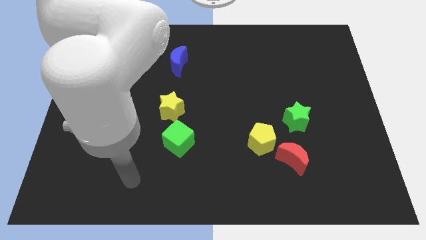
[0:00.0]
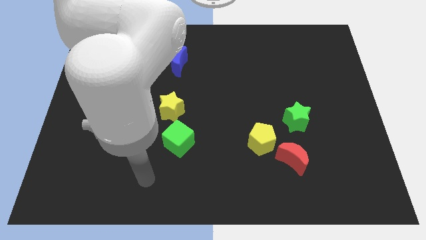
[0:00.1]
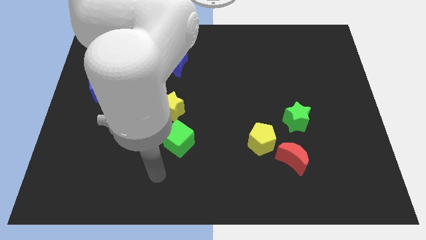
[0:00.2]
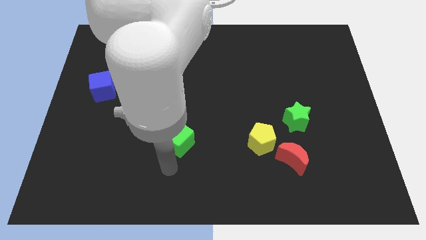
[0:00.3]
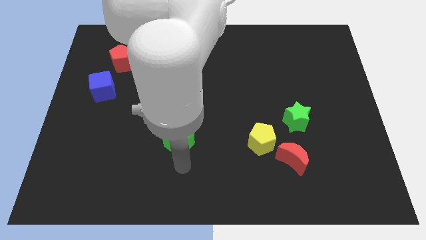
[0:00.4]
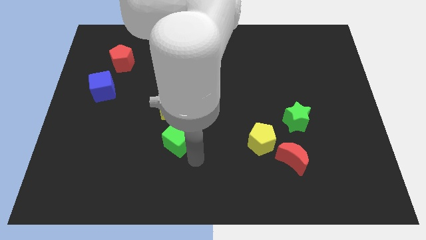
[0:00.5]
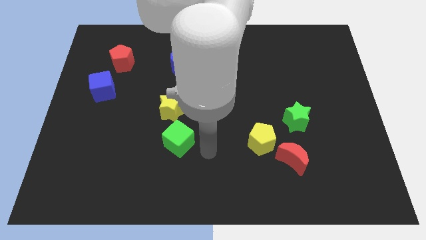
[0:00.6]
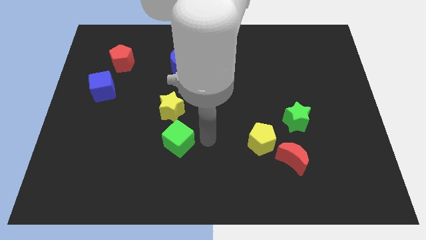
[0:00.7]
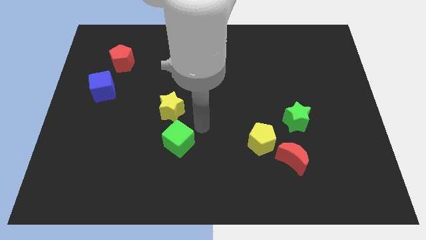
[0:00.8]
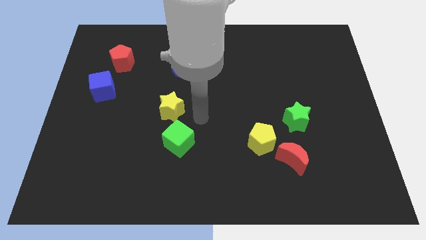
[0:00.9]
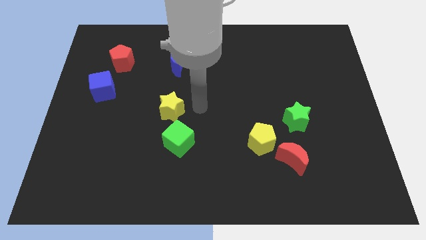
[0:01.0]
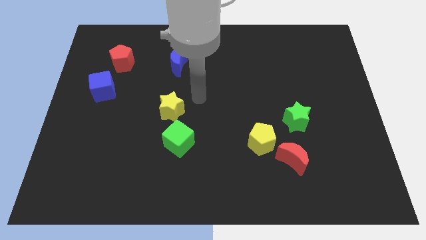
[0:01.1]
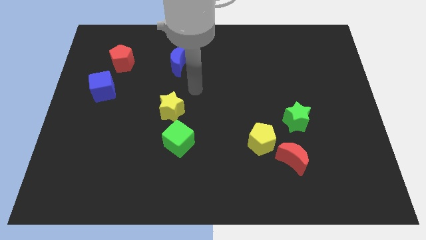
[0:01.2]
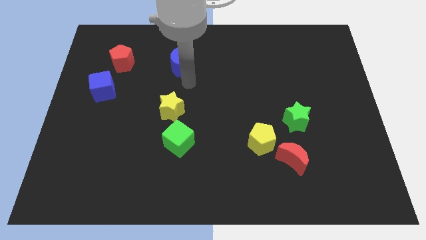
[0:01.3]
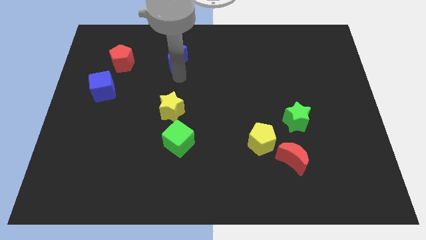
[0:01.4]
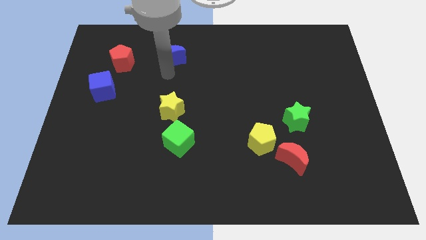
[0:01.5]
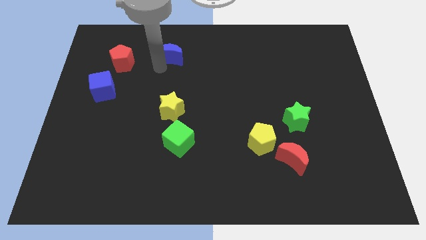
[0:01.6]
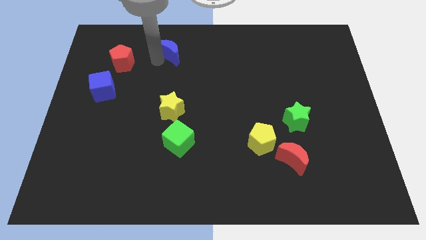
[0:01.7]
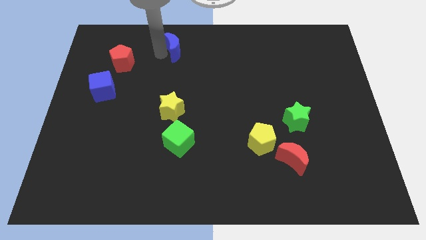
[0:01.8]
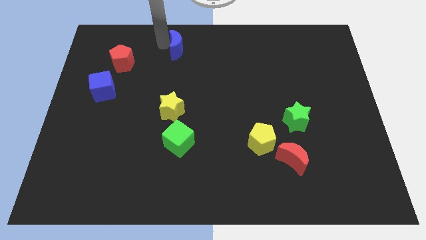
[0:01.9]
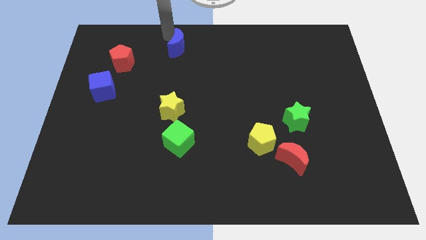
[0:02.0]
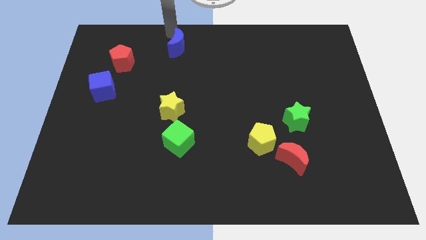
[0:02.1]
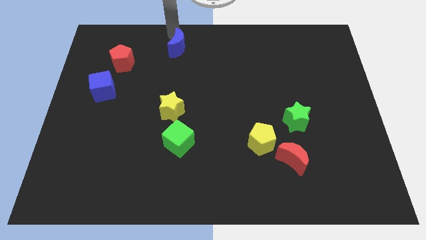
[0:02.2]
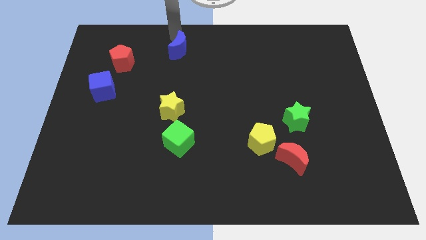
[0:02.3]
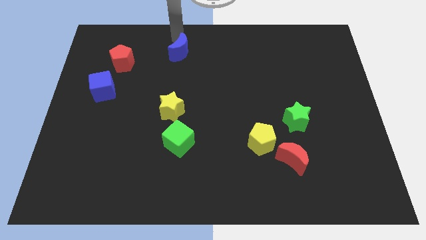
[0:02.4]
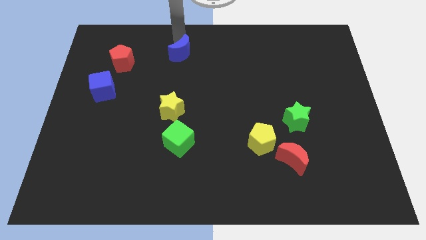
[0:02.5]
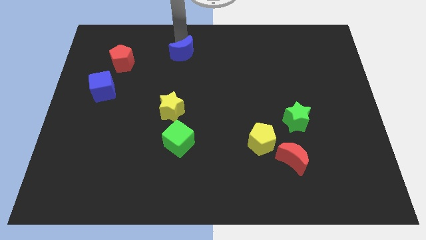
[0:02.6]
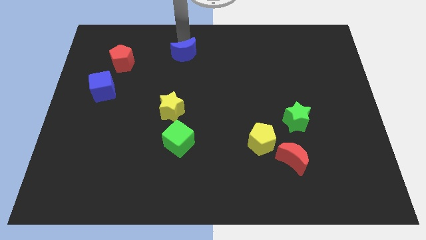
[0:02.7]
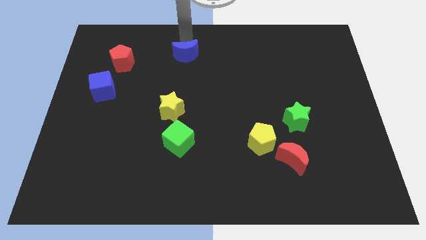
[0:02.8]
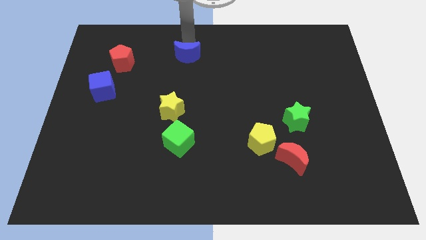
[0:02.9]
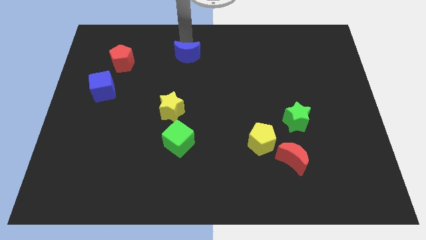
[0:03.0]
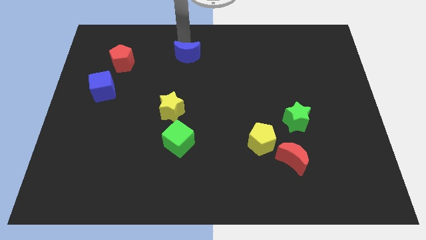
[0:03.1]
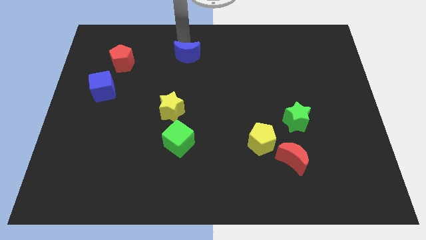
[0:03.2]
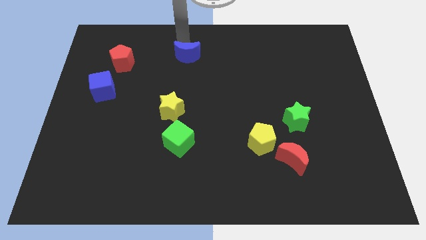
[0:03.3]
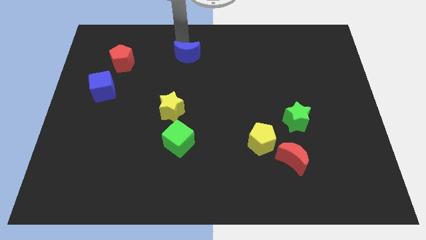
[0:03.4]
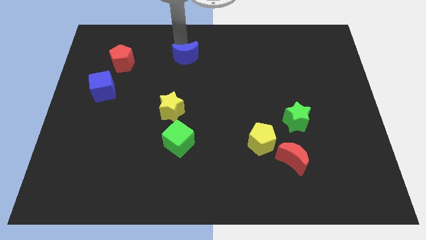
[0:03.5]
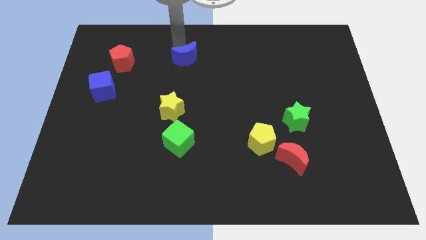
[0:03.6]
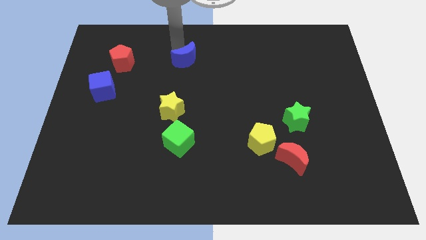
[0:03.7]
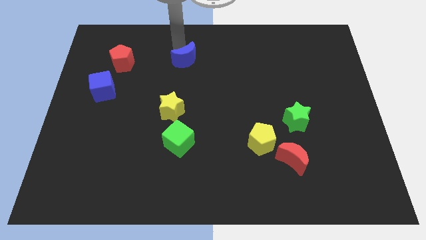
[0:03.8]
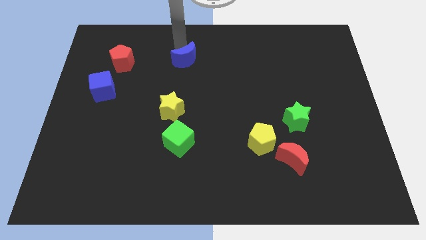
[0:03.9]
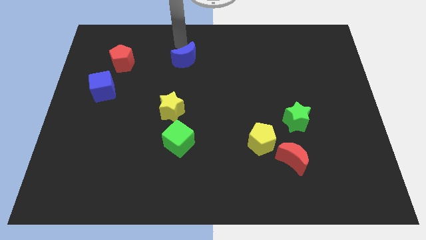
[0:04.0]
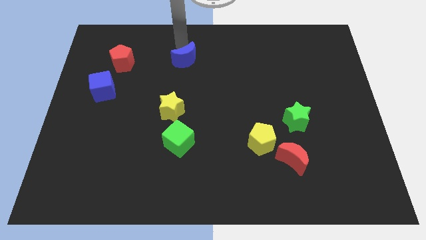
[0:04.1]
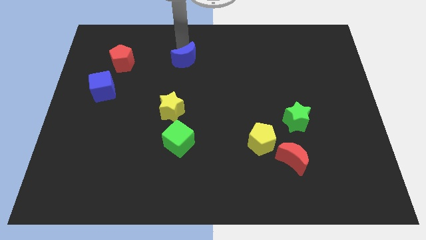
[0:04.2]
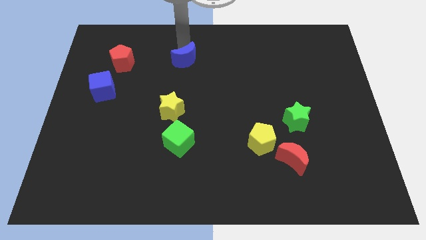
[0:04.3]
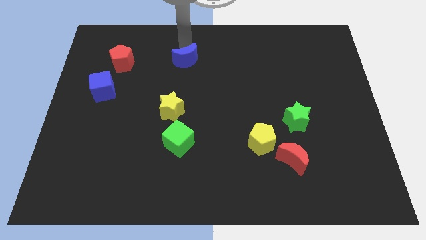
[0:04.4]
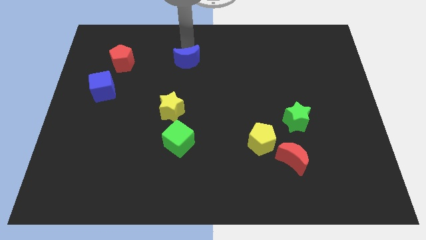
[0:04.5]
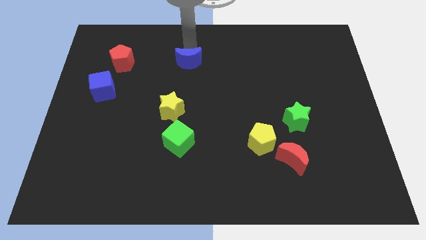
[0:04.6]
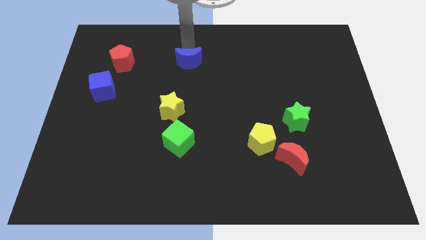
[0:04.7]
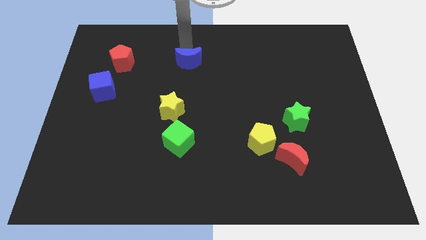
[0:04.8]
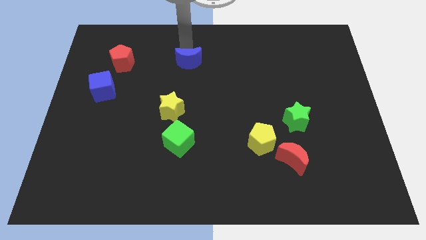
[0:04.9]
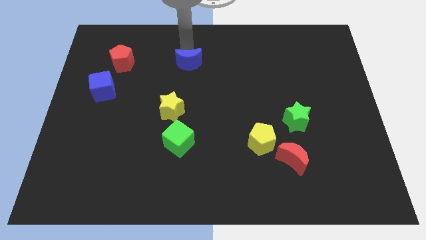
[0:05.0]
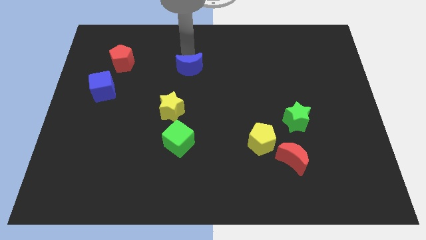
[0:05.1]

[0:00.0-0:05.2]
push the blue moon to the middle

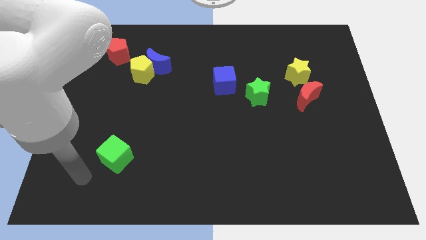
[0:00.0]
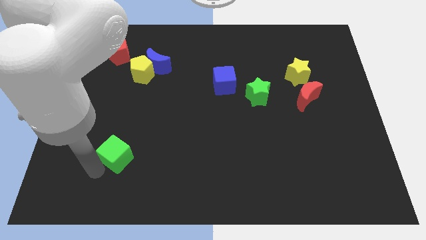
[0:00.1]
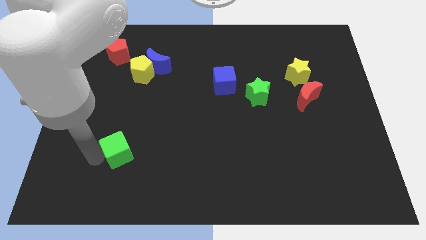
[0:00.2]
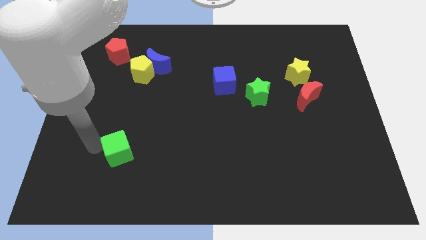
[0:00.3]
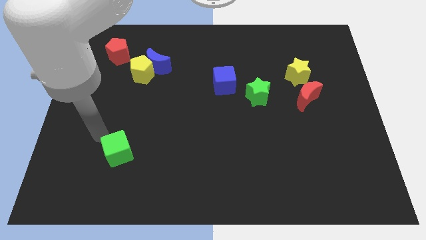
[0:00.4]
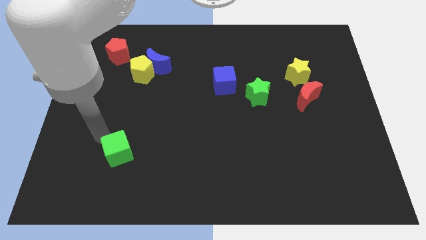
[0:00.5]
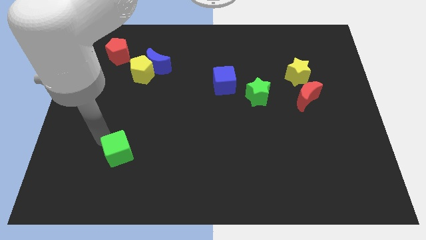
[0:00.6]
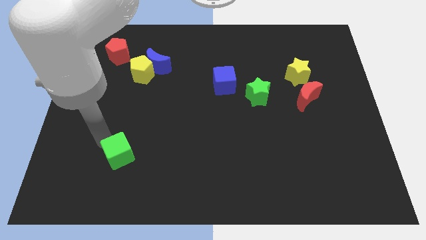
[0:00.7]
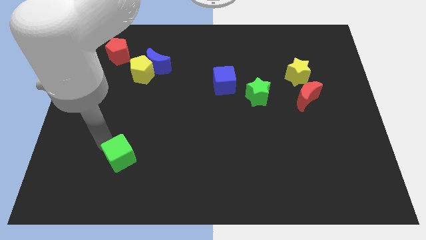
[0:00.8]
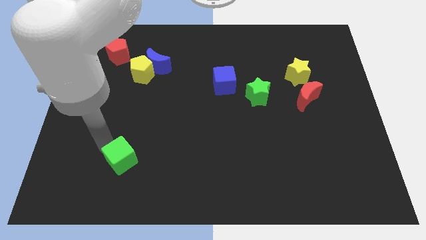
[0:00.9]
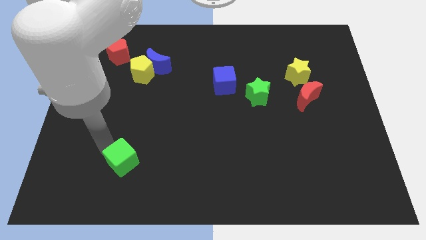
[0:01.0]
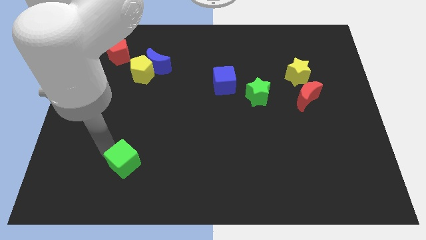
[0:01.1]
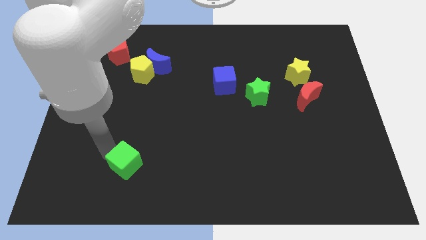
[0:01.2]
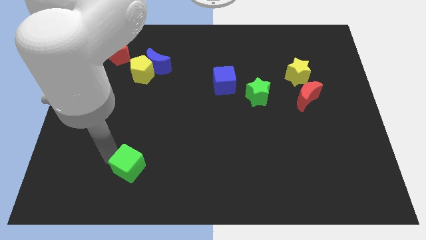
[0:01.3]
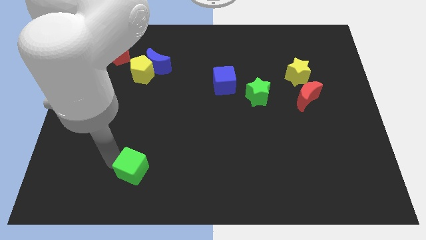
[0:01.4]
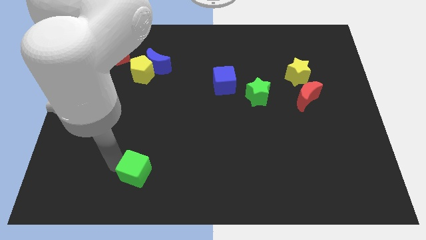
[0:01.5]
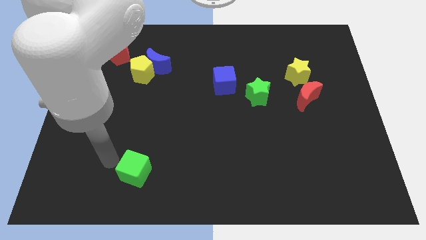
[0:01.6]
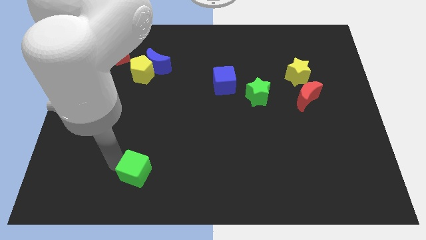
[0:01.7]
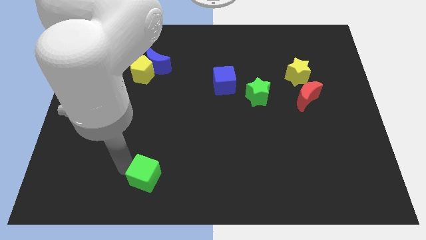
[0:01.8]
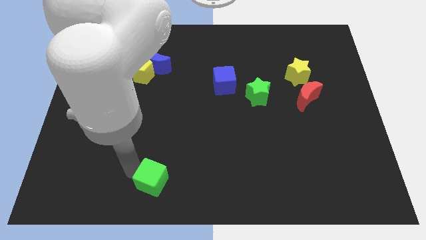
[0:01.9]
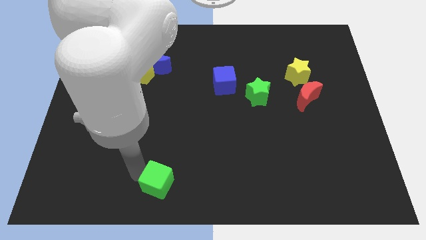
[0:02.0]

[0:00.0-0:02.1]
put the green cube to the bottom
